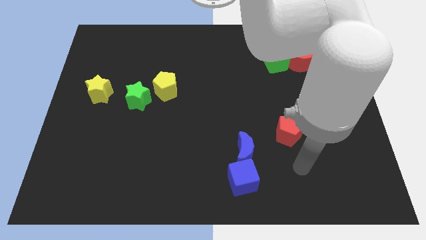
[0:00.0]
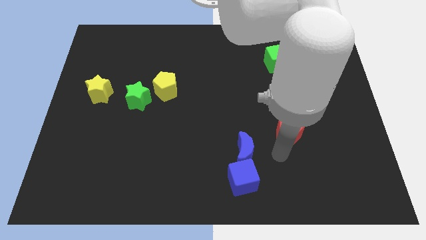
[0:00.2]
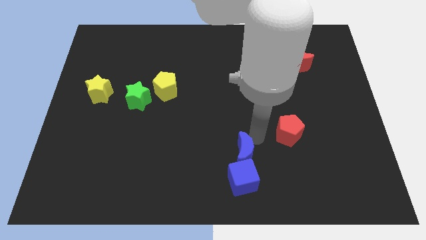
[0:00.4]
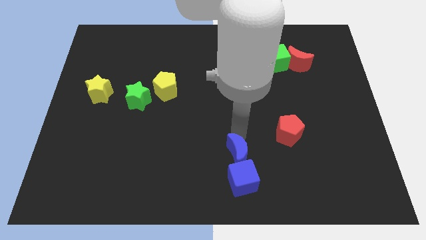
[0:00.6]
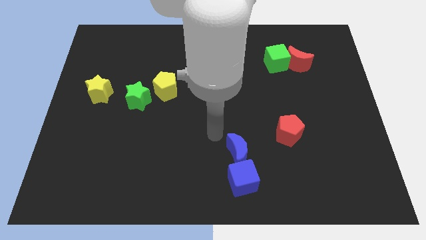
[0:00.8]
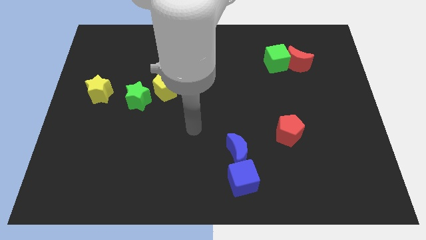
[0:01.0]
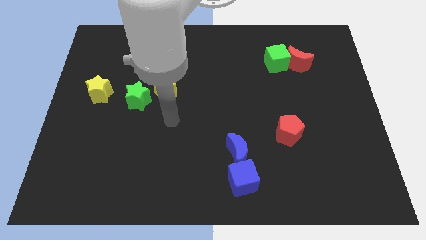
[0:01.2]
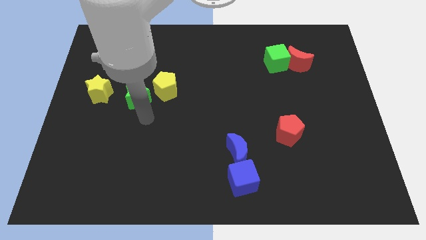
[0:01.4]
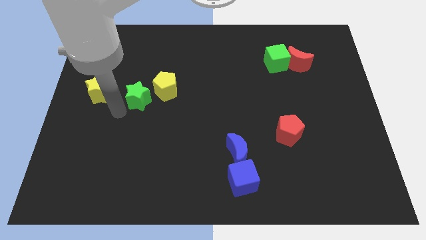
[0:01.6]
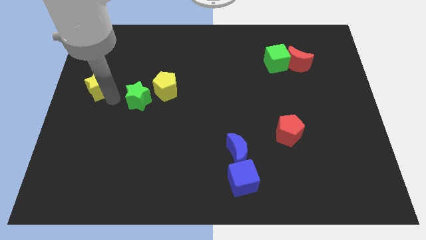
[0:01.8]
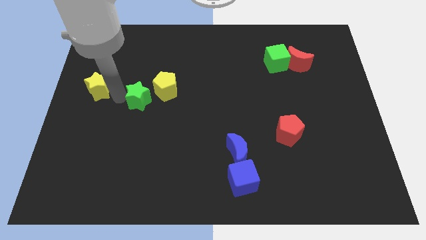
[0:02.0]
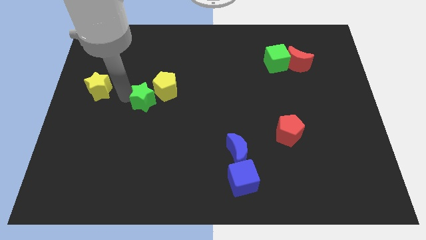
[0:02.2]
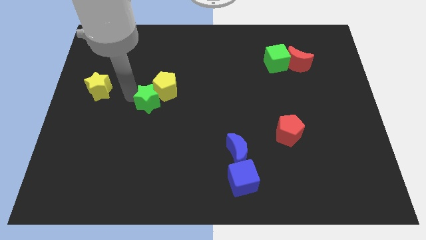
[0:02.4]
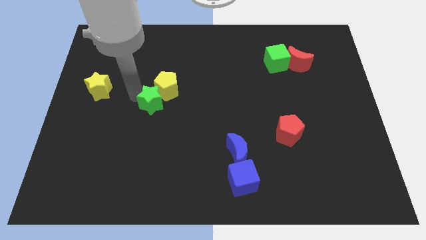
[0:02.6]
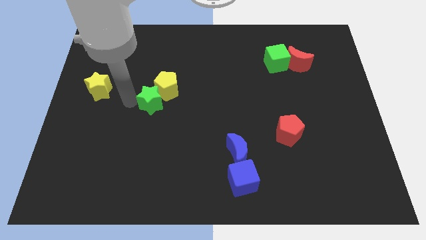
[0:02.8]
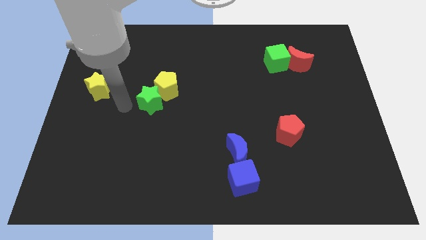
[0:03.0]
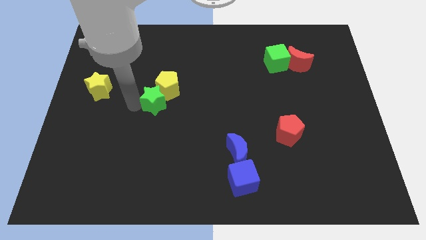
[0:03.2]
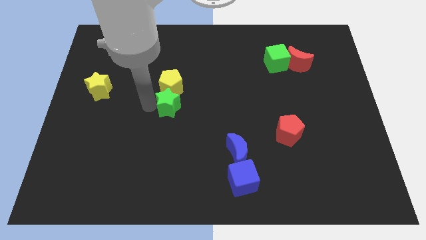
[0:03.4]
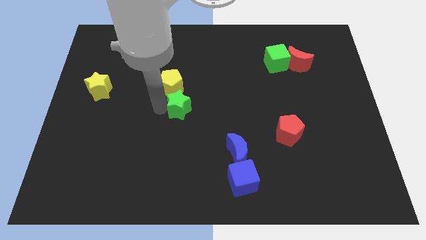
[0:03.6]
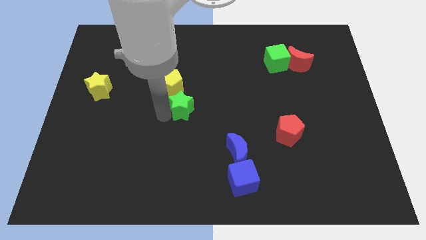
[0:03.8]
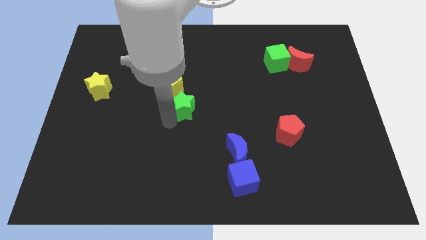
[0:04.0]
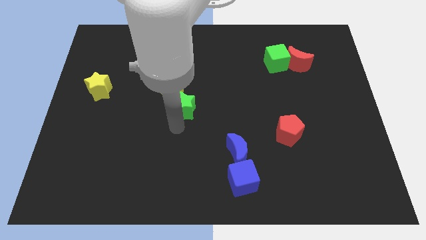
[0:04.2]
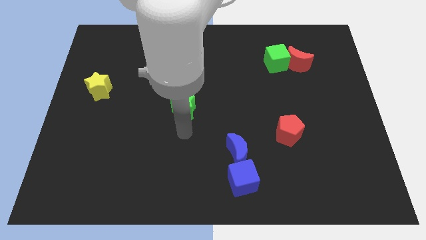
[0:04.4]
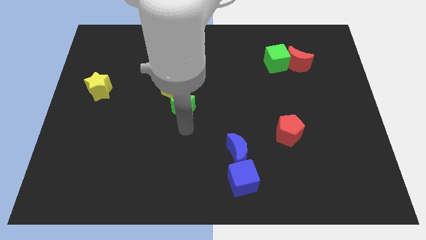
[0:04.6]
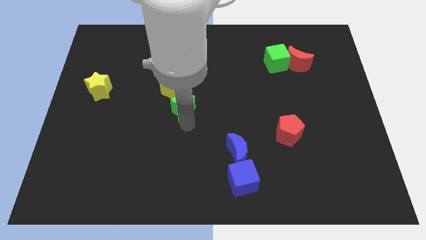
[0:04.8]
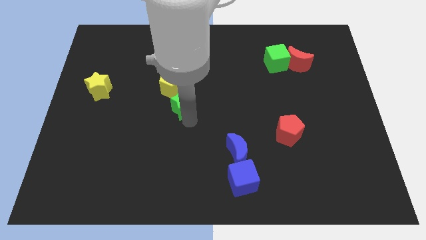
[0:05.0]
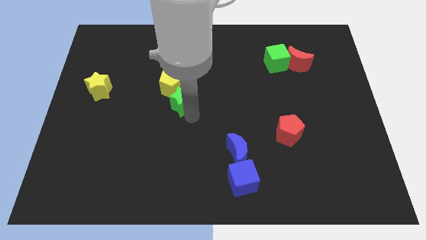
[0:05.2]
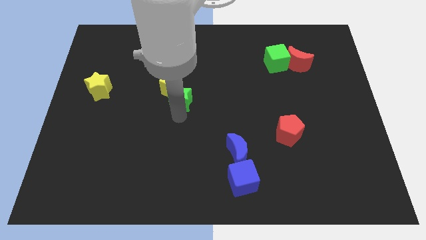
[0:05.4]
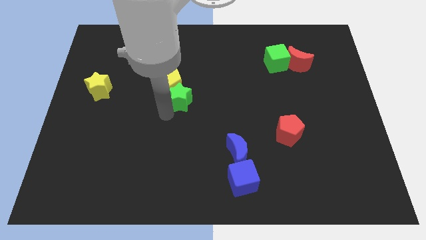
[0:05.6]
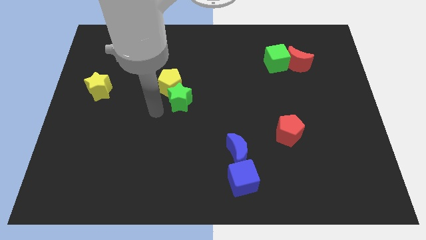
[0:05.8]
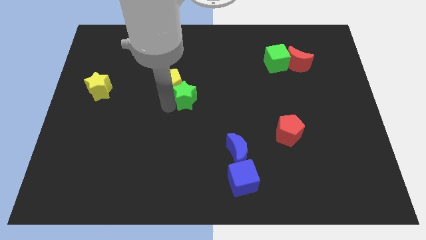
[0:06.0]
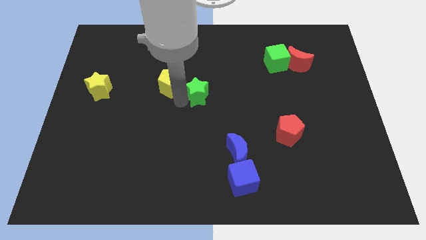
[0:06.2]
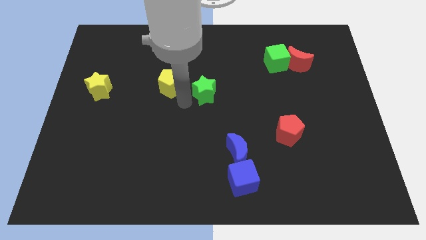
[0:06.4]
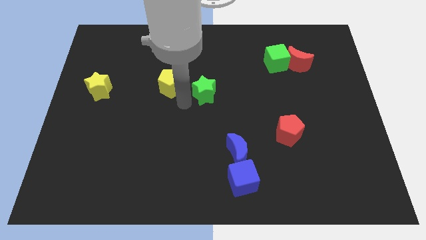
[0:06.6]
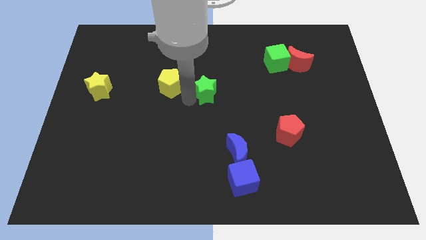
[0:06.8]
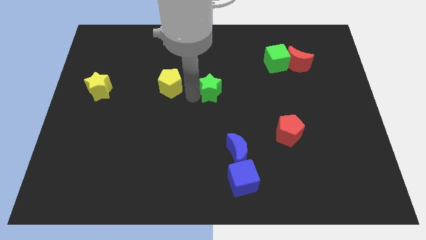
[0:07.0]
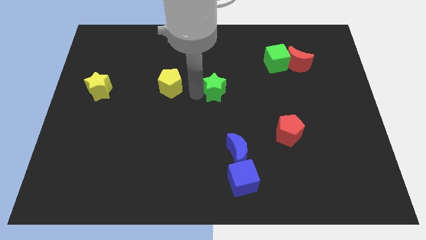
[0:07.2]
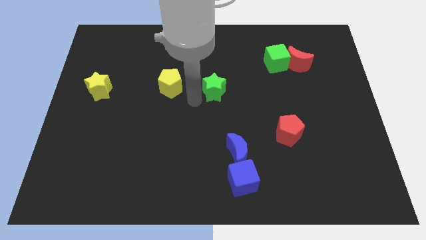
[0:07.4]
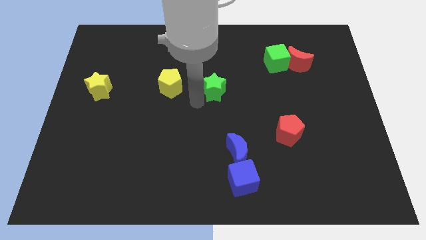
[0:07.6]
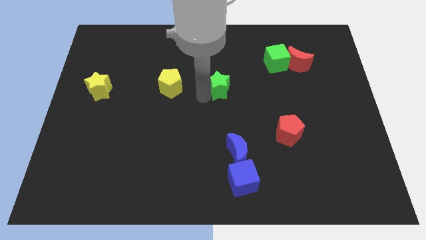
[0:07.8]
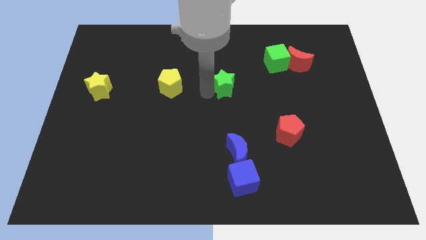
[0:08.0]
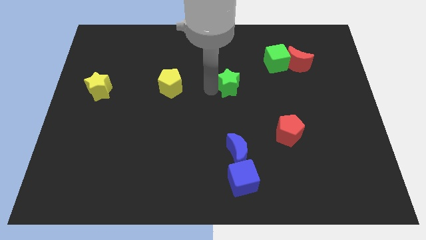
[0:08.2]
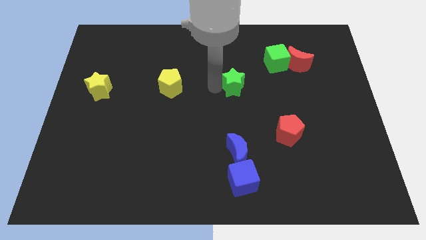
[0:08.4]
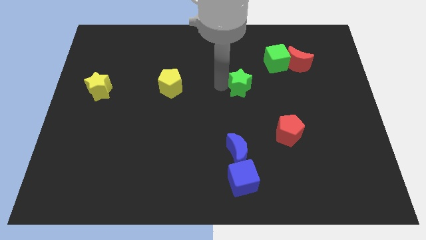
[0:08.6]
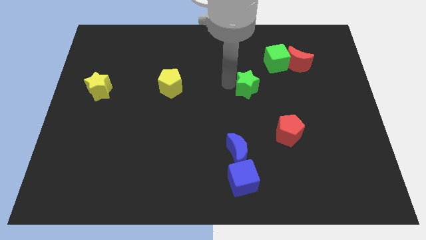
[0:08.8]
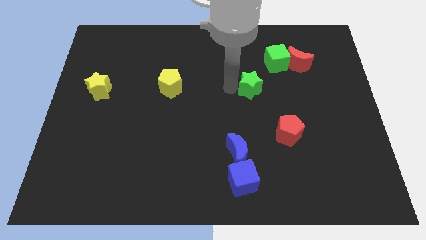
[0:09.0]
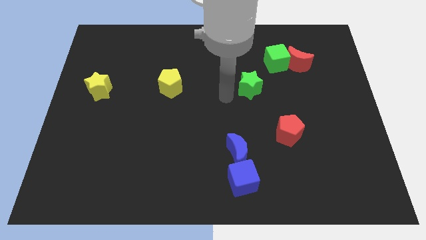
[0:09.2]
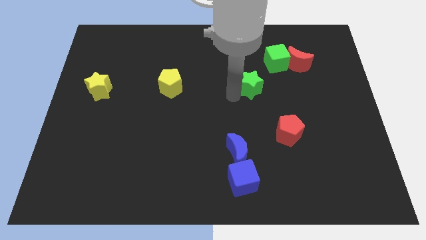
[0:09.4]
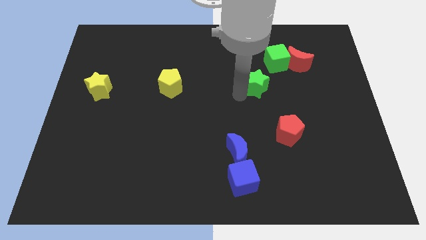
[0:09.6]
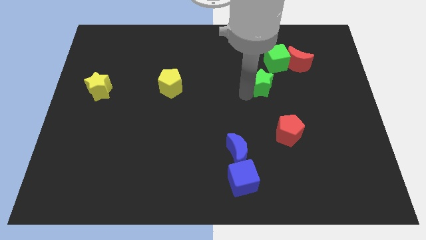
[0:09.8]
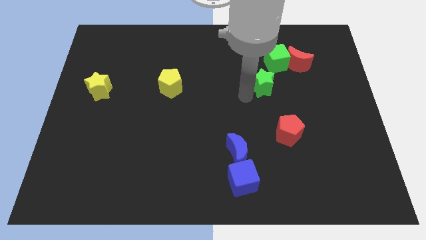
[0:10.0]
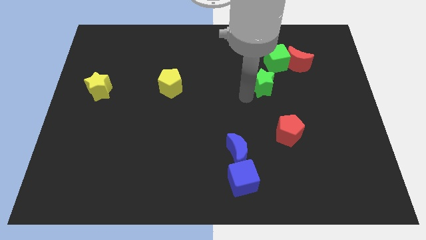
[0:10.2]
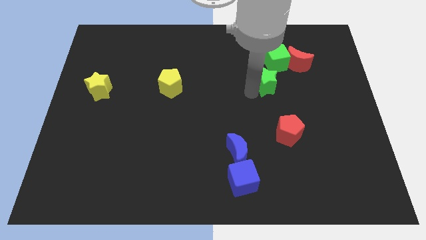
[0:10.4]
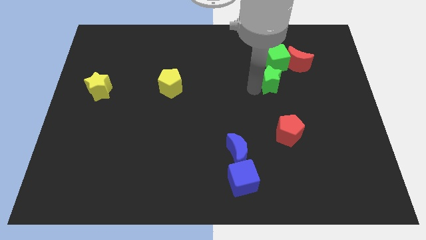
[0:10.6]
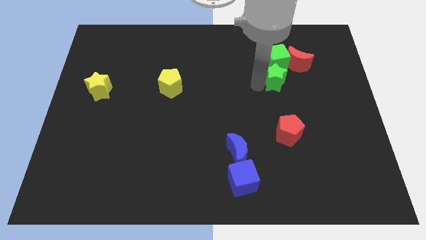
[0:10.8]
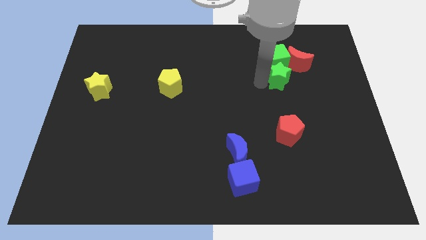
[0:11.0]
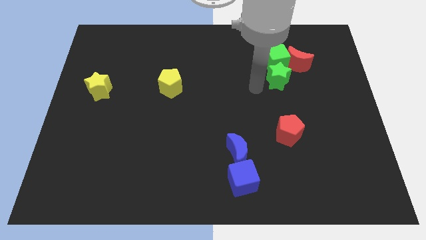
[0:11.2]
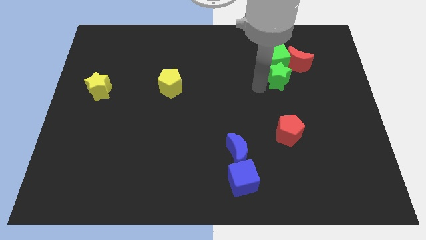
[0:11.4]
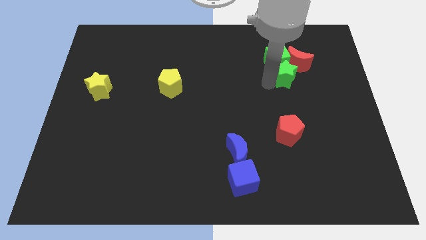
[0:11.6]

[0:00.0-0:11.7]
move the green star next to the red moon

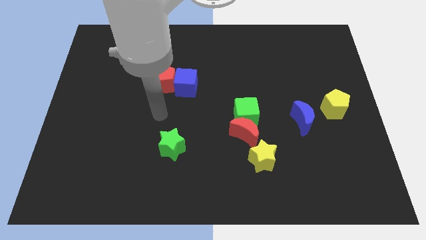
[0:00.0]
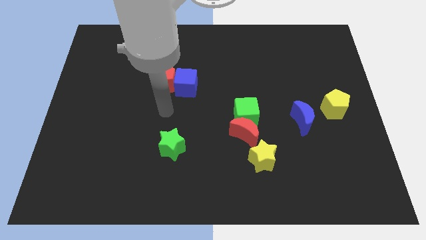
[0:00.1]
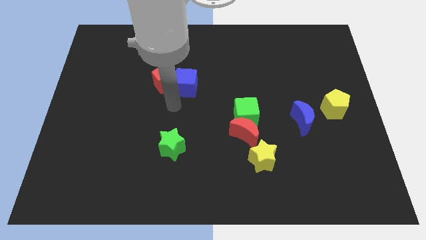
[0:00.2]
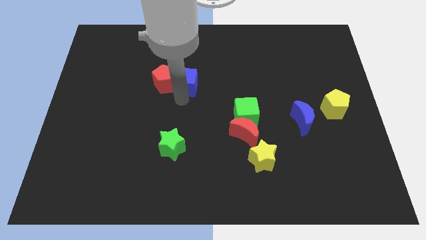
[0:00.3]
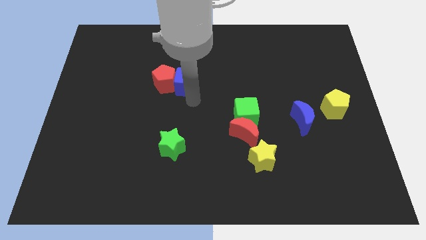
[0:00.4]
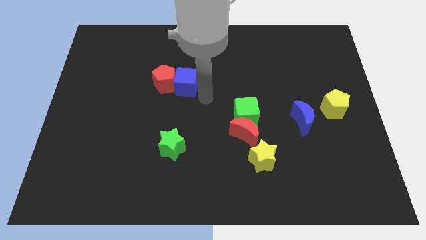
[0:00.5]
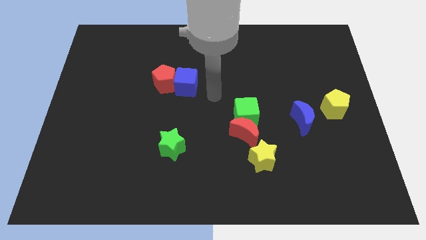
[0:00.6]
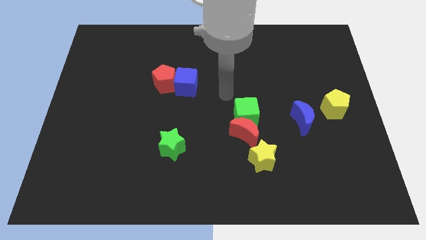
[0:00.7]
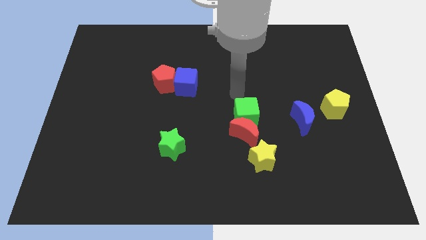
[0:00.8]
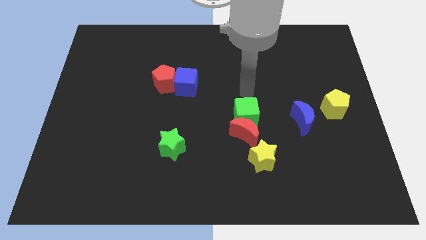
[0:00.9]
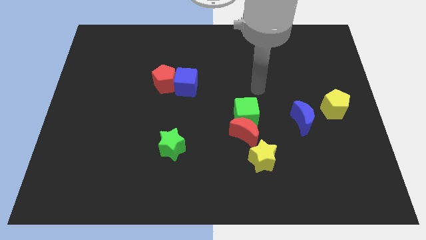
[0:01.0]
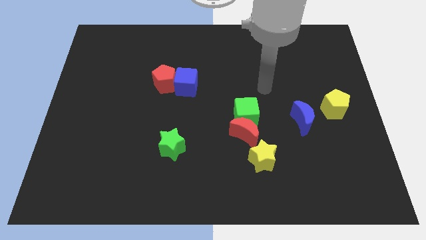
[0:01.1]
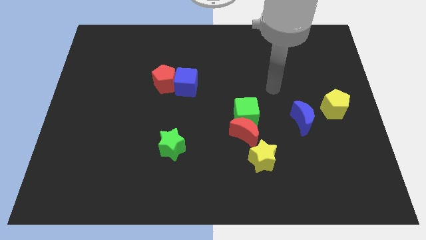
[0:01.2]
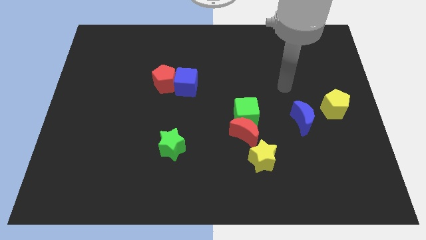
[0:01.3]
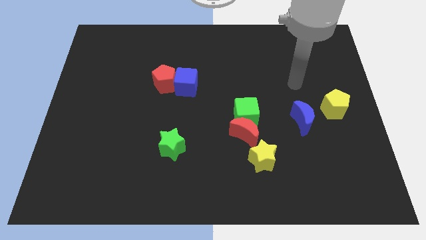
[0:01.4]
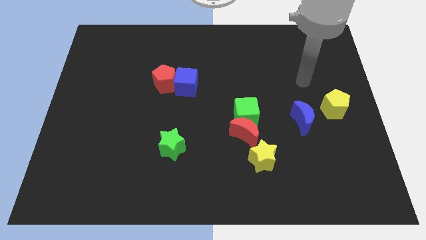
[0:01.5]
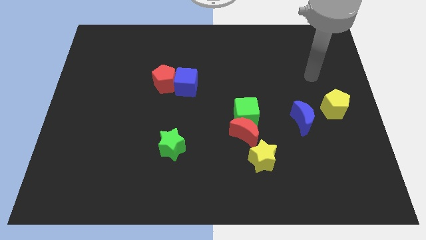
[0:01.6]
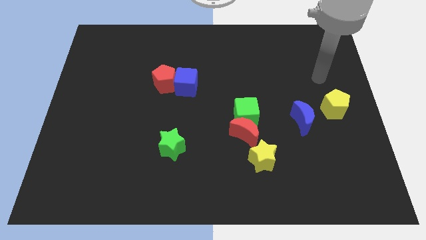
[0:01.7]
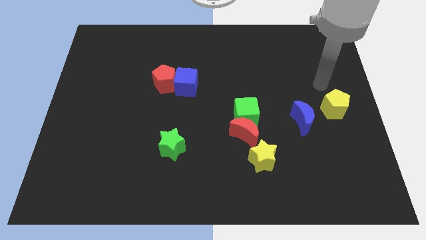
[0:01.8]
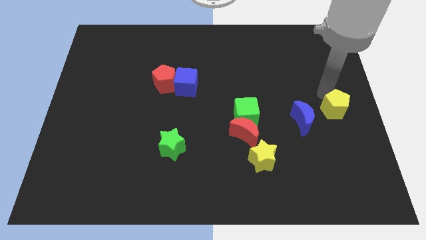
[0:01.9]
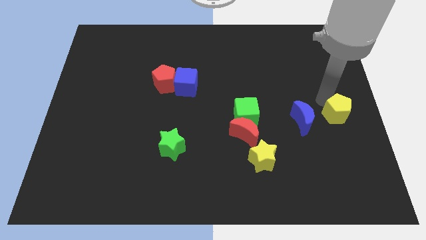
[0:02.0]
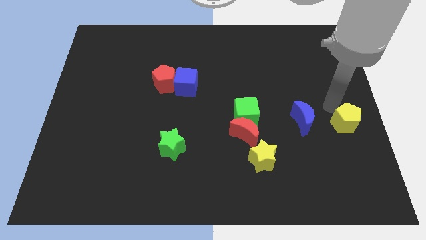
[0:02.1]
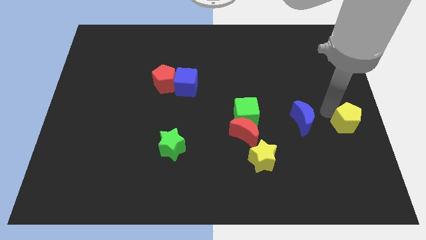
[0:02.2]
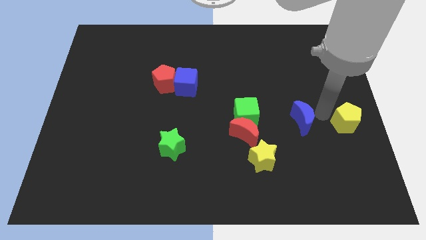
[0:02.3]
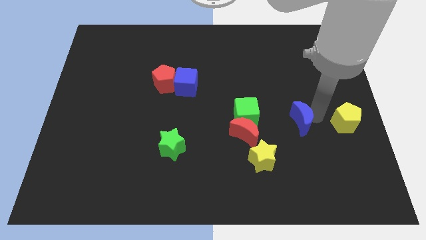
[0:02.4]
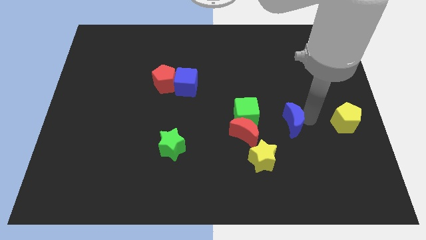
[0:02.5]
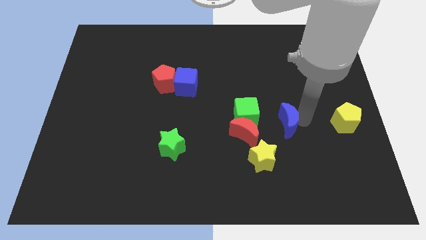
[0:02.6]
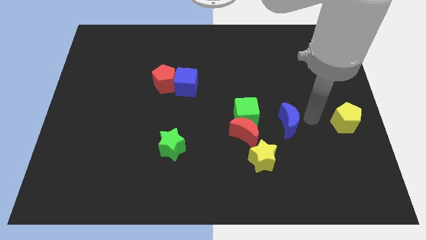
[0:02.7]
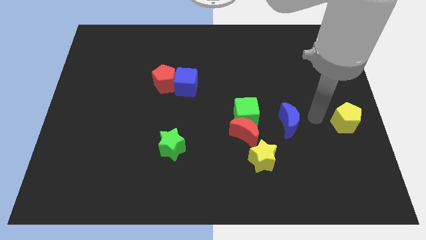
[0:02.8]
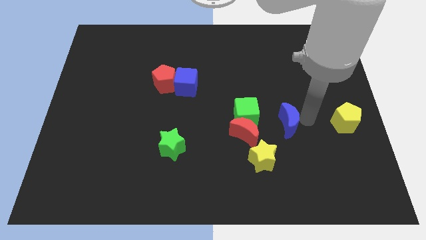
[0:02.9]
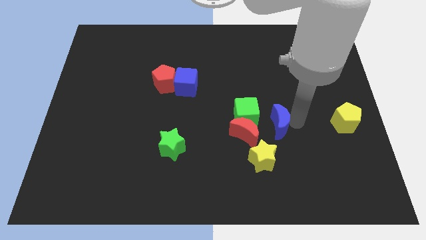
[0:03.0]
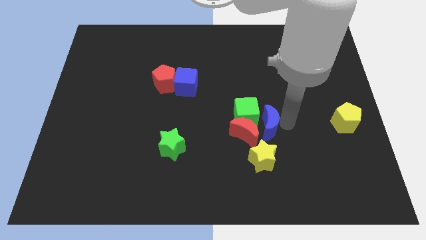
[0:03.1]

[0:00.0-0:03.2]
slide the blue moon to the red moon
